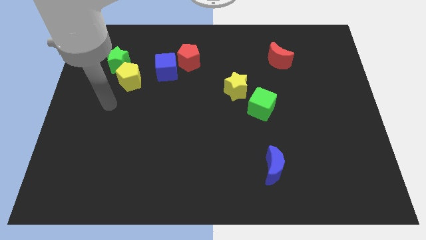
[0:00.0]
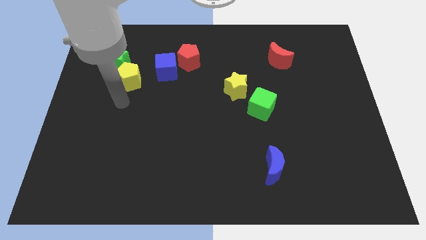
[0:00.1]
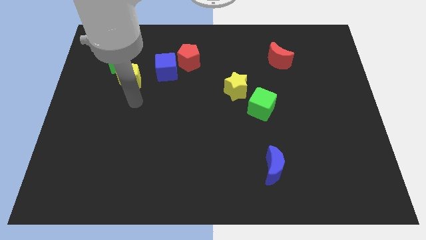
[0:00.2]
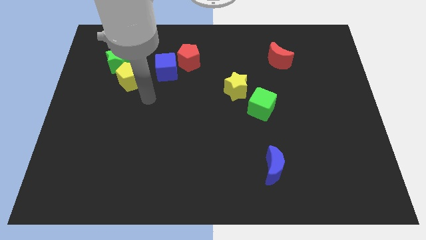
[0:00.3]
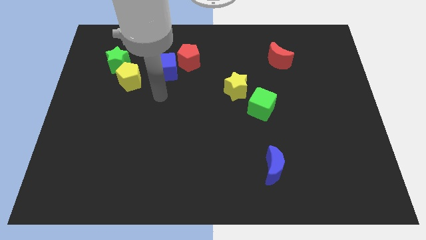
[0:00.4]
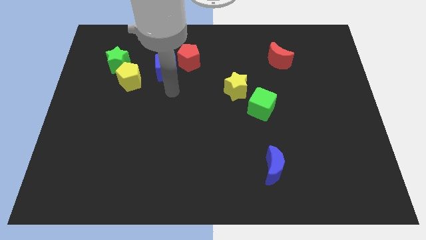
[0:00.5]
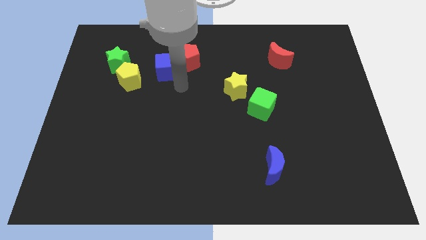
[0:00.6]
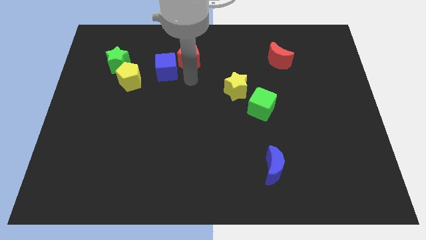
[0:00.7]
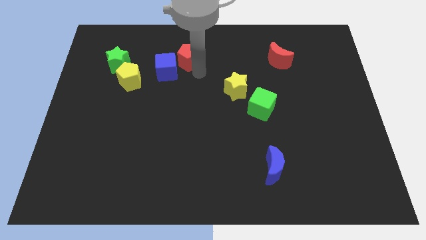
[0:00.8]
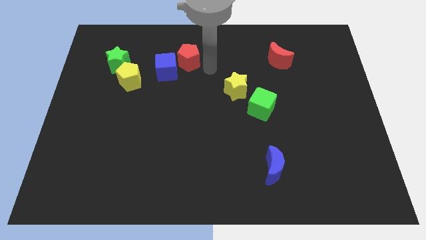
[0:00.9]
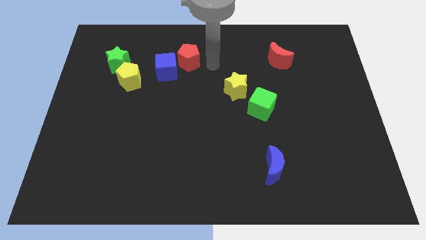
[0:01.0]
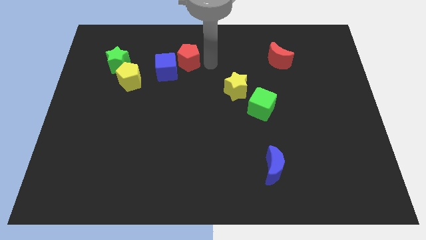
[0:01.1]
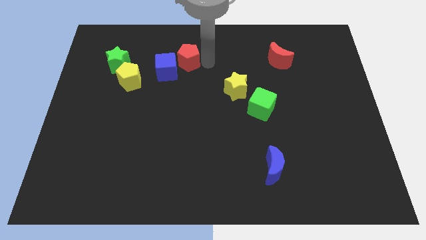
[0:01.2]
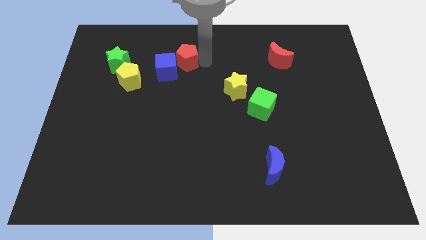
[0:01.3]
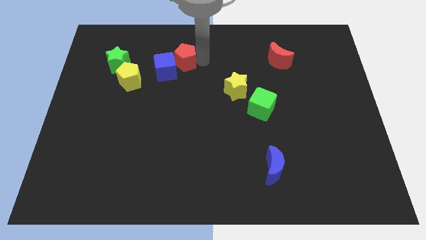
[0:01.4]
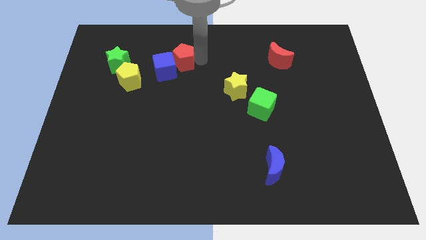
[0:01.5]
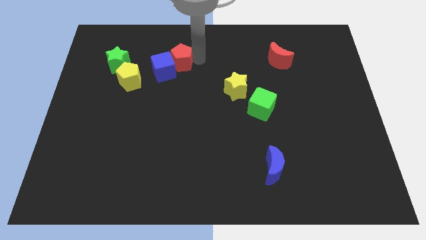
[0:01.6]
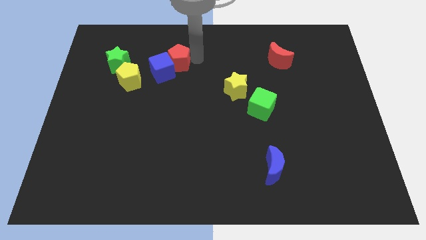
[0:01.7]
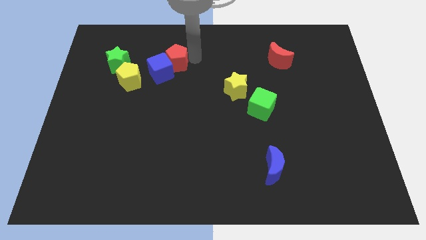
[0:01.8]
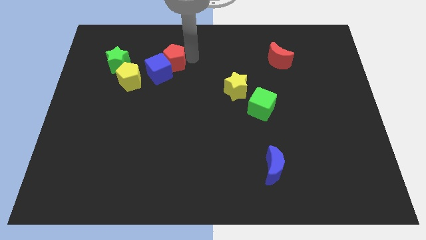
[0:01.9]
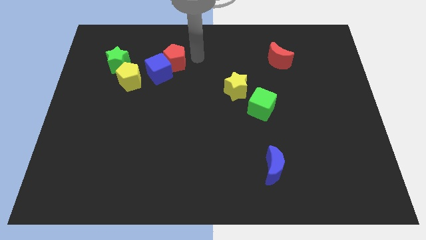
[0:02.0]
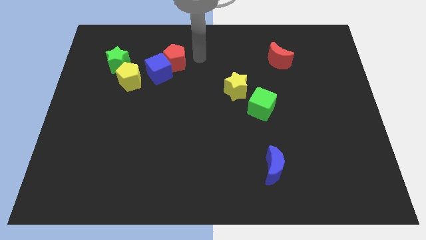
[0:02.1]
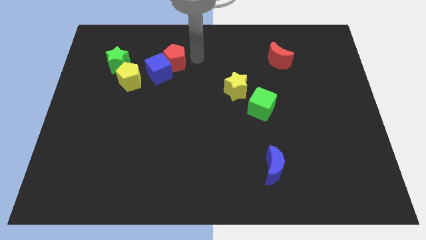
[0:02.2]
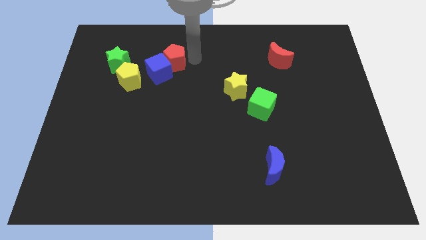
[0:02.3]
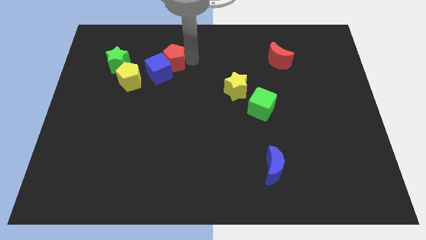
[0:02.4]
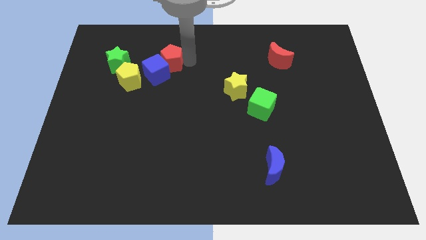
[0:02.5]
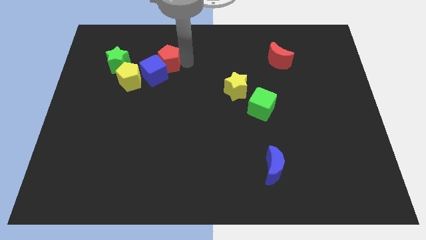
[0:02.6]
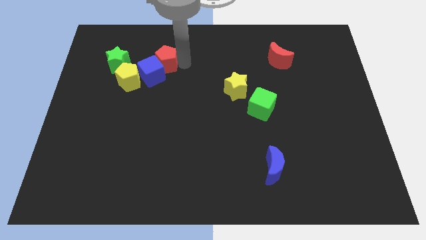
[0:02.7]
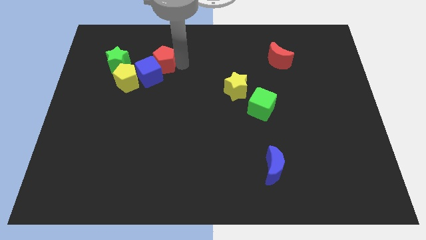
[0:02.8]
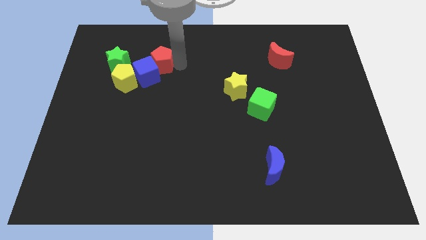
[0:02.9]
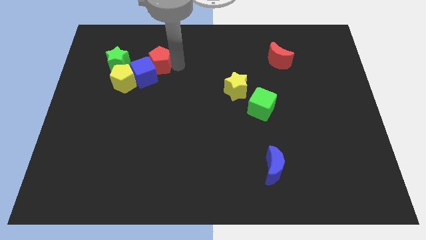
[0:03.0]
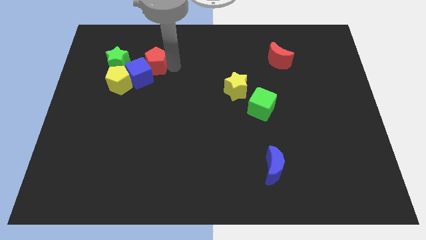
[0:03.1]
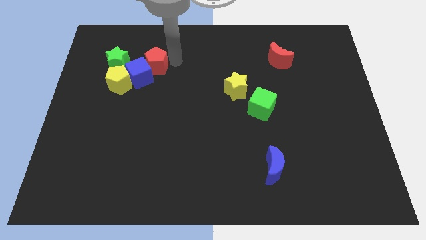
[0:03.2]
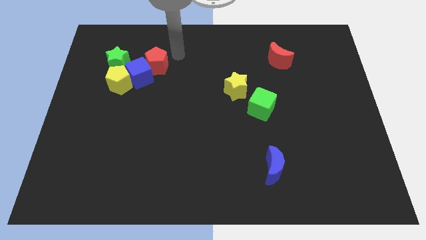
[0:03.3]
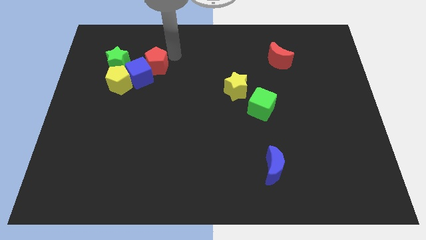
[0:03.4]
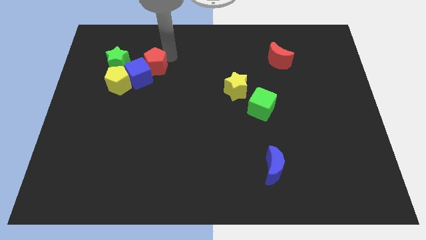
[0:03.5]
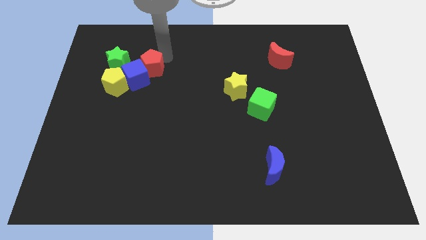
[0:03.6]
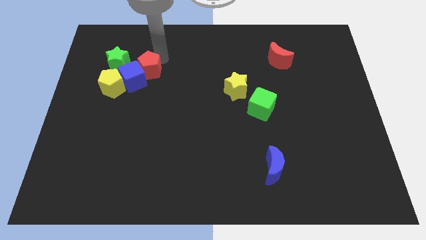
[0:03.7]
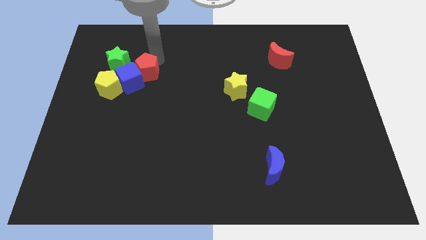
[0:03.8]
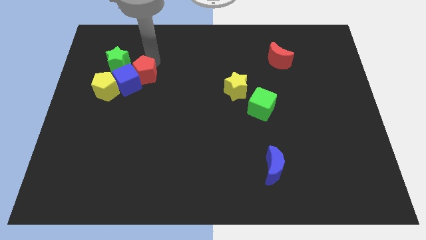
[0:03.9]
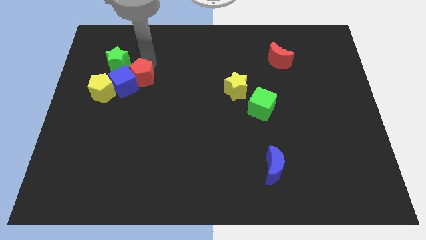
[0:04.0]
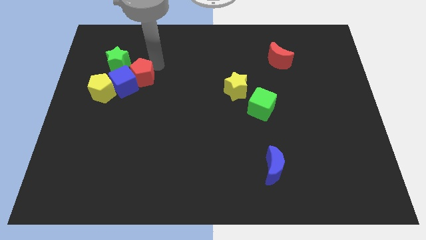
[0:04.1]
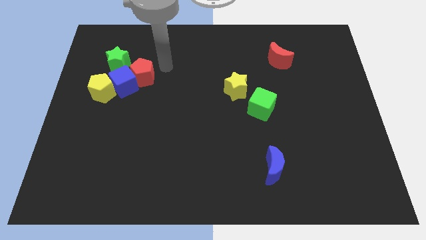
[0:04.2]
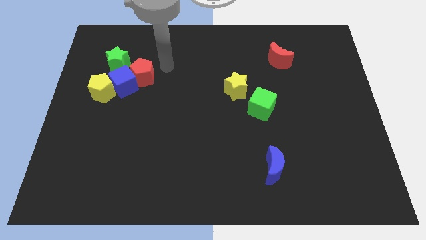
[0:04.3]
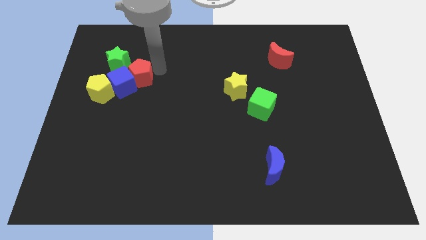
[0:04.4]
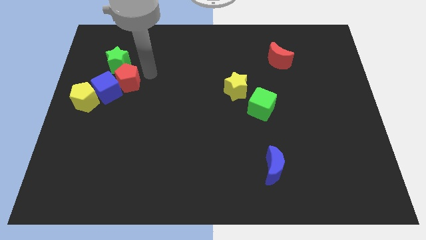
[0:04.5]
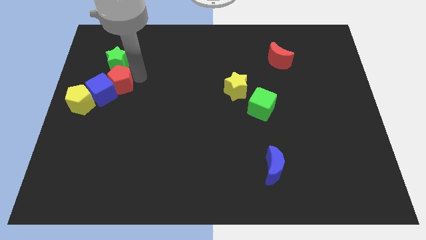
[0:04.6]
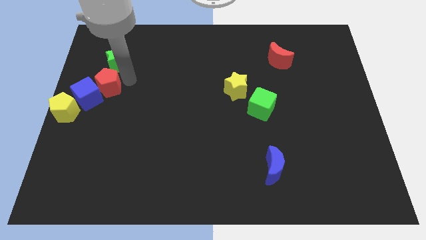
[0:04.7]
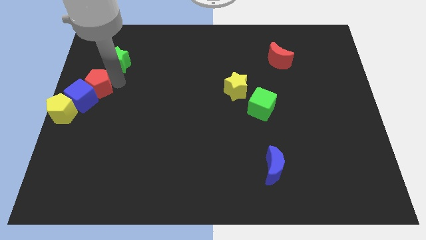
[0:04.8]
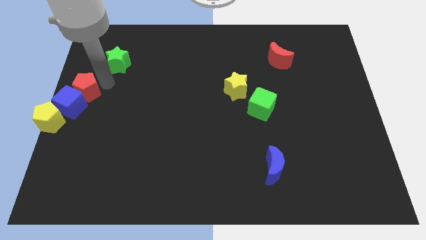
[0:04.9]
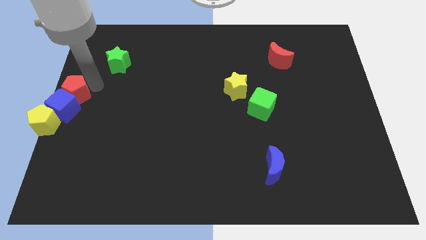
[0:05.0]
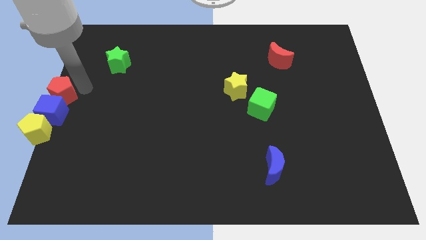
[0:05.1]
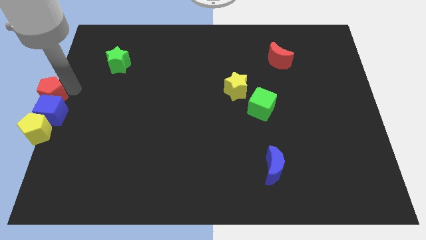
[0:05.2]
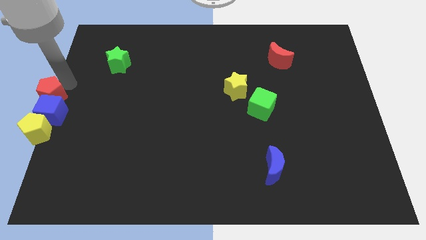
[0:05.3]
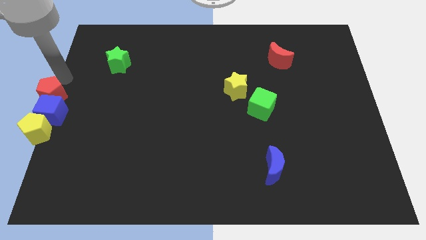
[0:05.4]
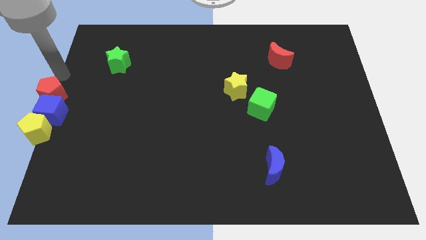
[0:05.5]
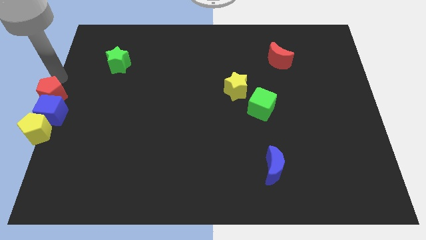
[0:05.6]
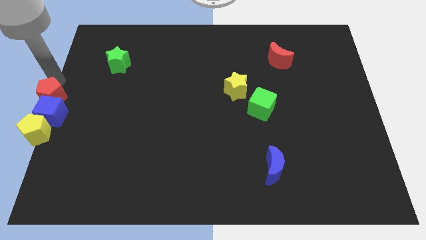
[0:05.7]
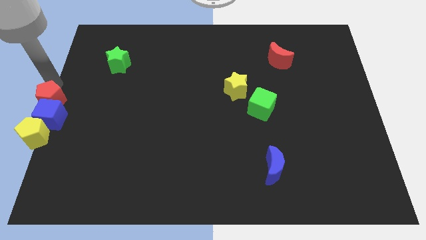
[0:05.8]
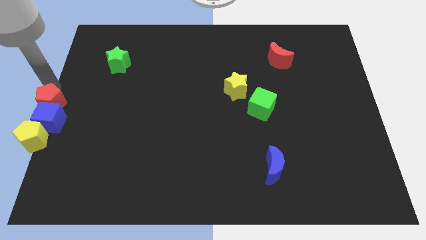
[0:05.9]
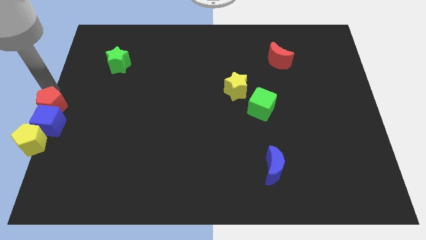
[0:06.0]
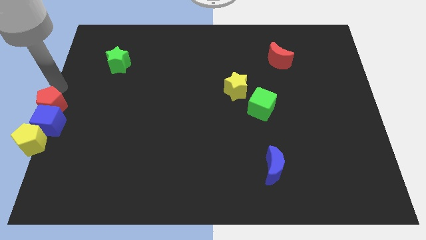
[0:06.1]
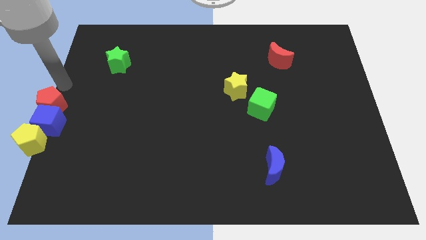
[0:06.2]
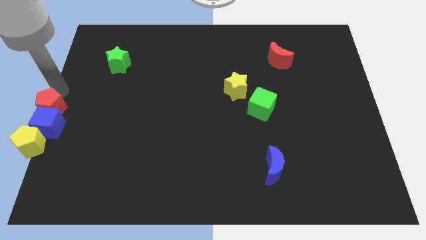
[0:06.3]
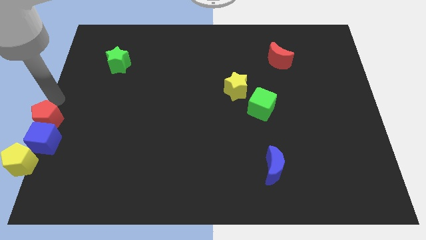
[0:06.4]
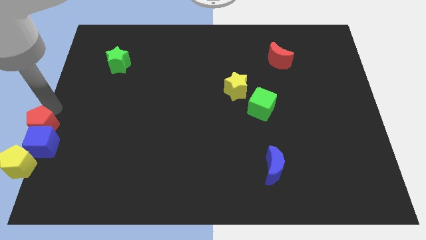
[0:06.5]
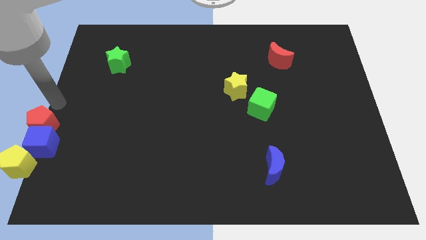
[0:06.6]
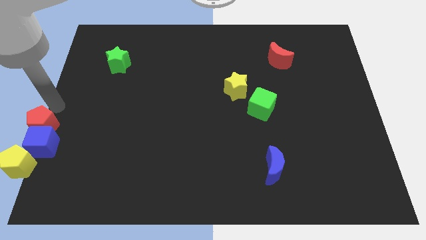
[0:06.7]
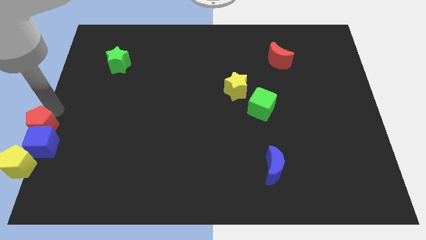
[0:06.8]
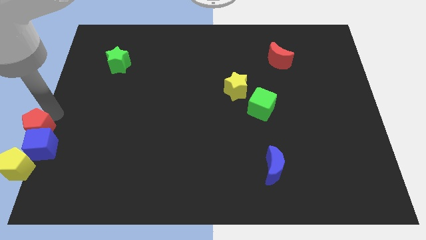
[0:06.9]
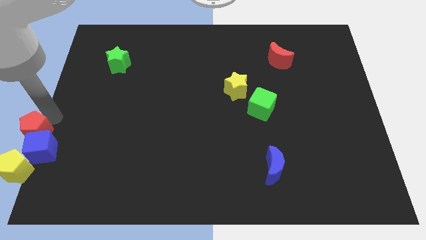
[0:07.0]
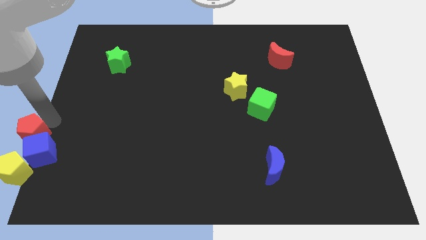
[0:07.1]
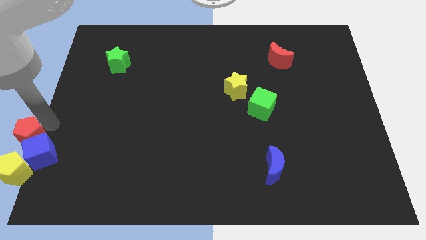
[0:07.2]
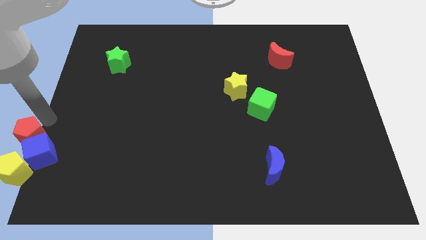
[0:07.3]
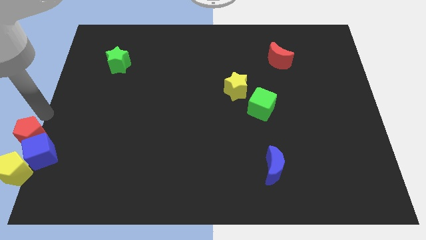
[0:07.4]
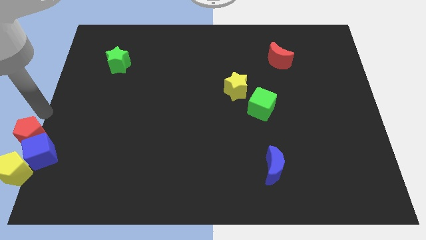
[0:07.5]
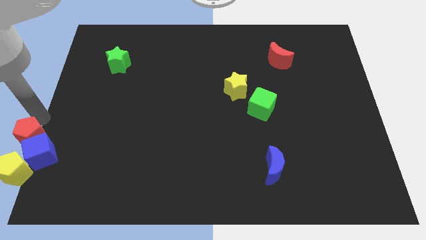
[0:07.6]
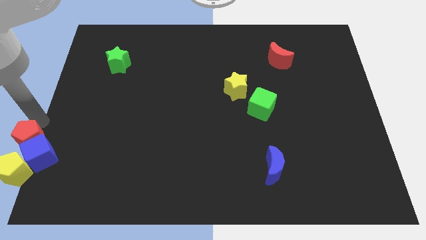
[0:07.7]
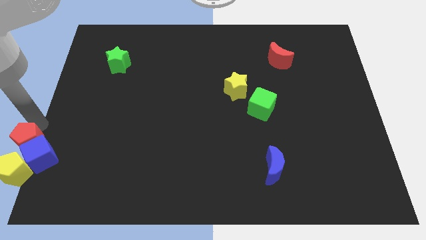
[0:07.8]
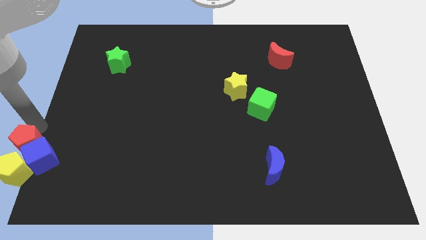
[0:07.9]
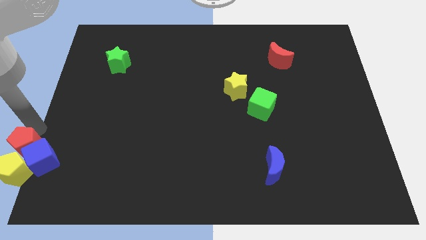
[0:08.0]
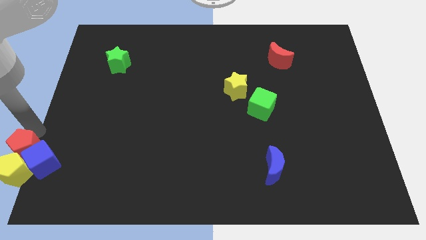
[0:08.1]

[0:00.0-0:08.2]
slide the red pentagon towards the yellow pentagon
